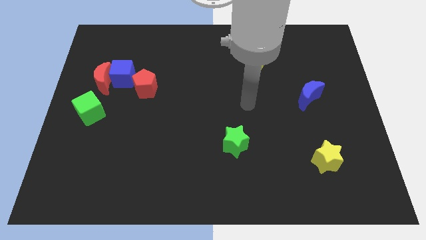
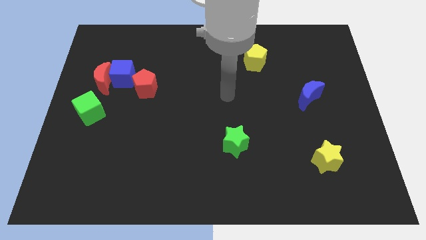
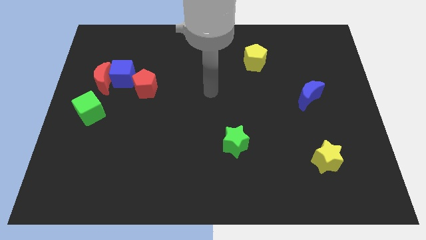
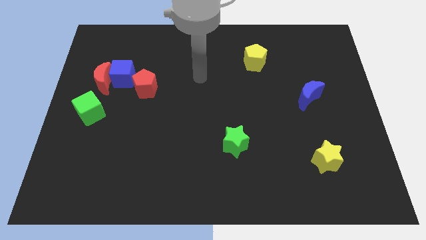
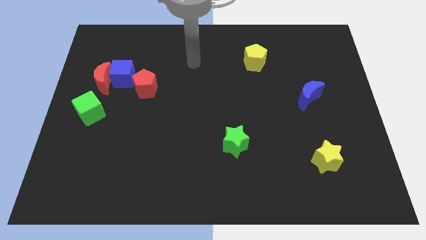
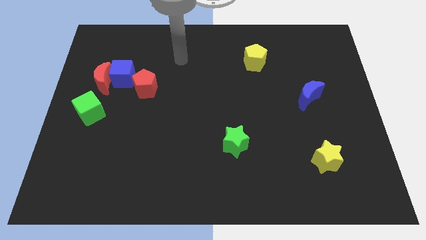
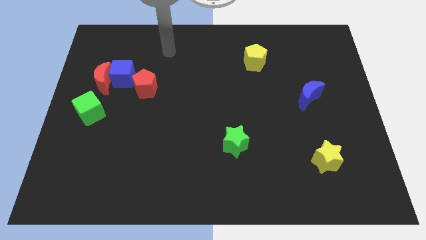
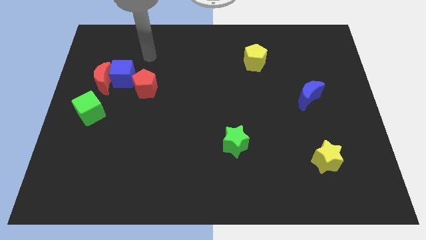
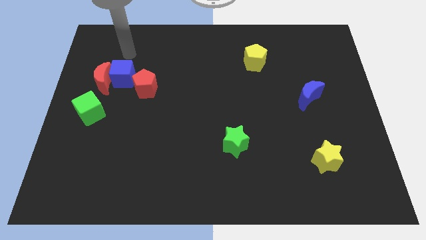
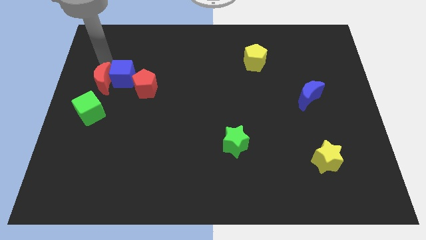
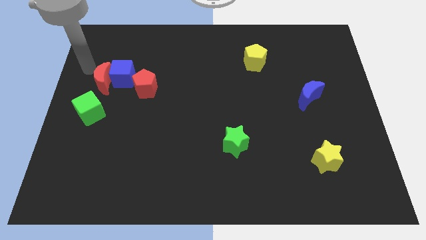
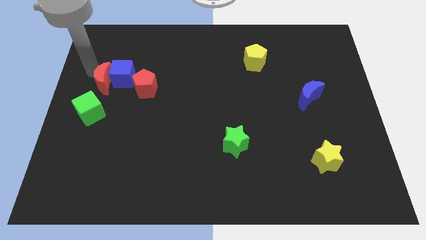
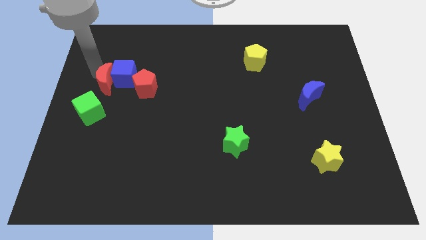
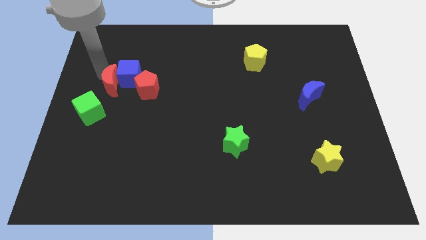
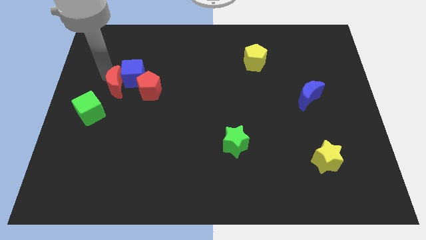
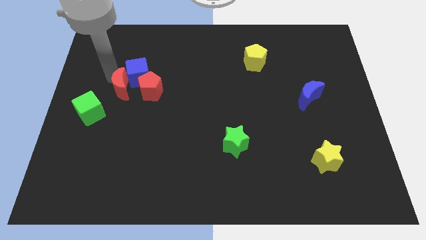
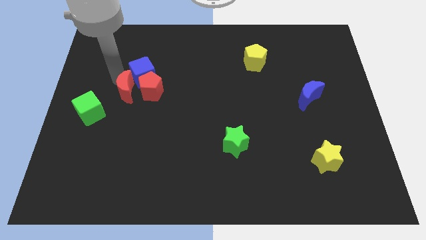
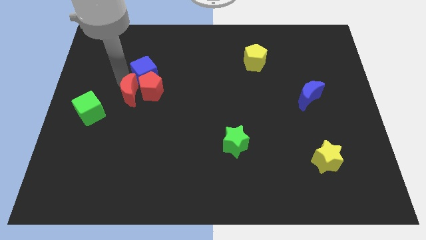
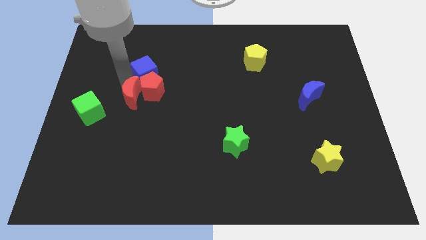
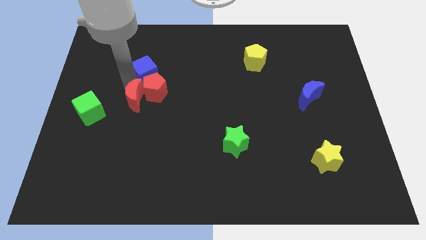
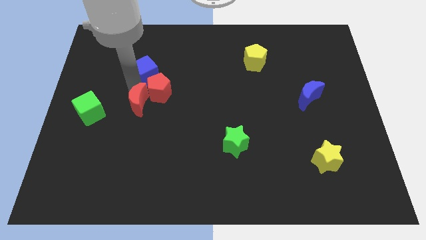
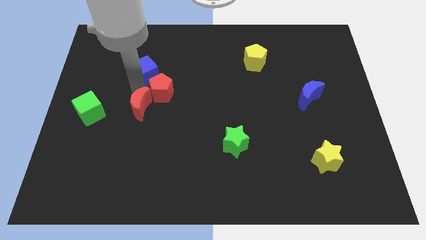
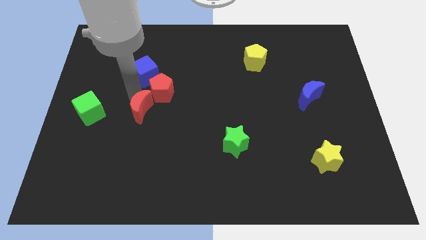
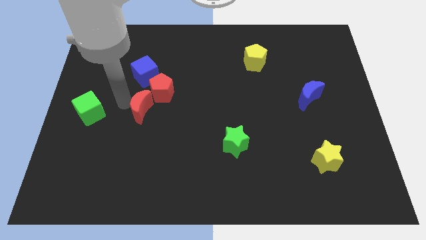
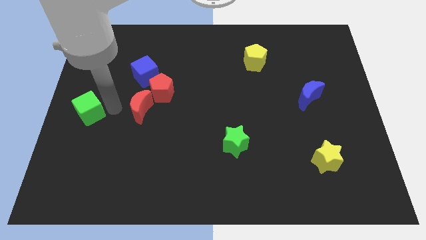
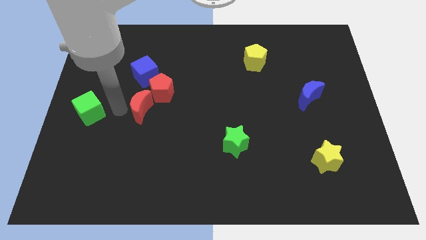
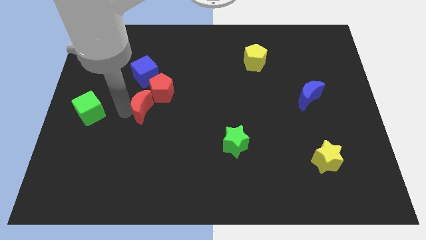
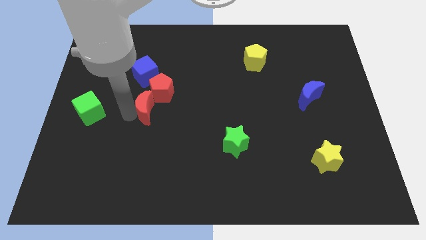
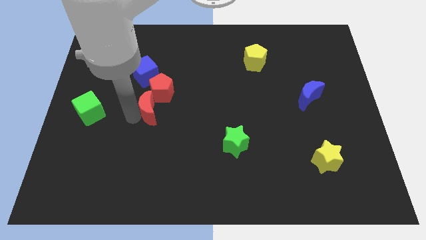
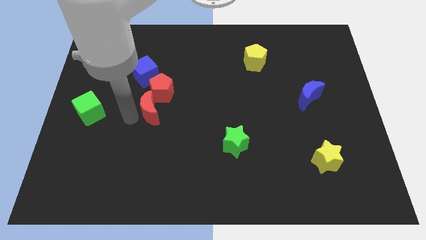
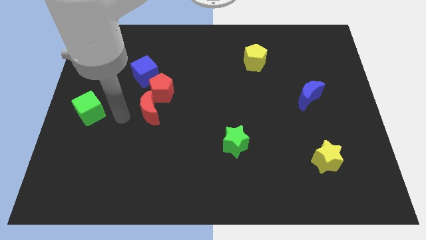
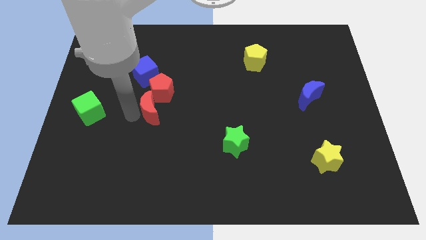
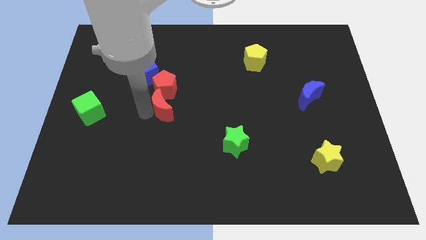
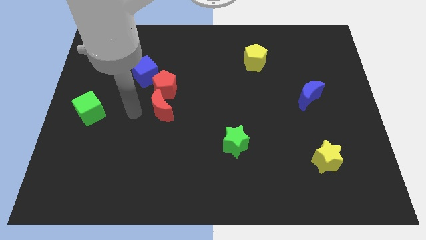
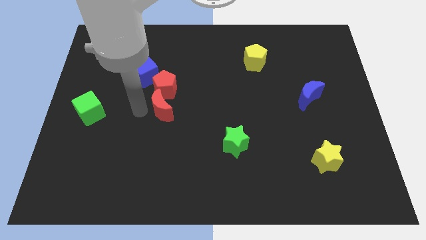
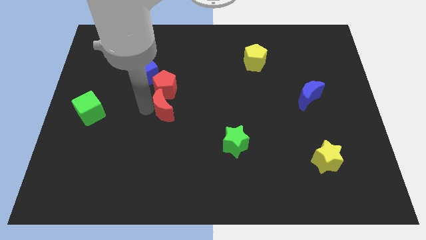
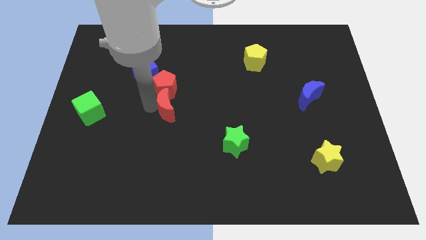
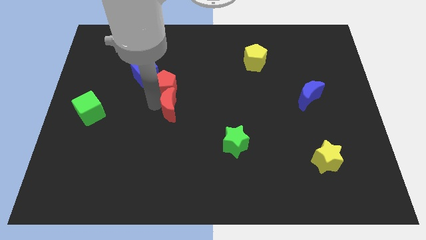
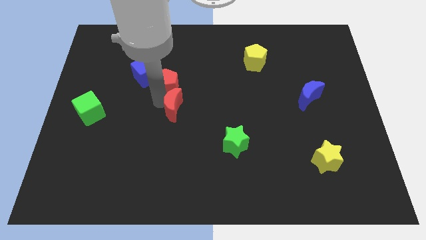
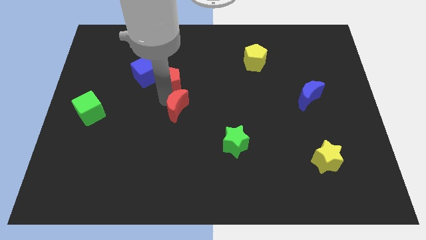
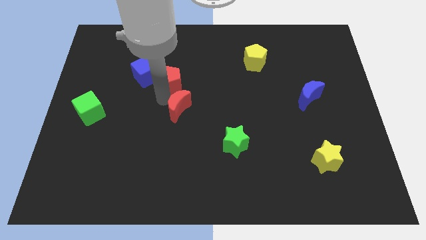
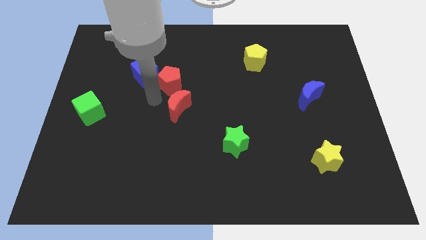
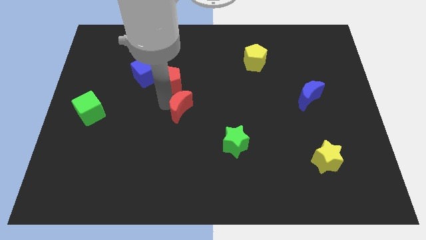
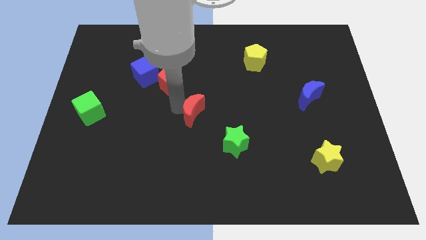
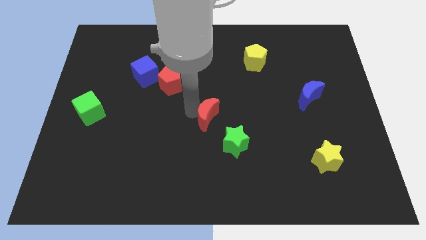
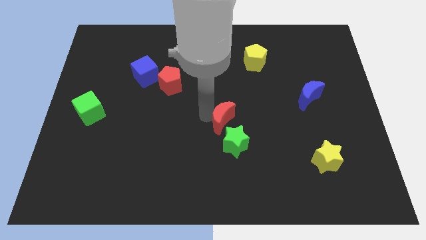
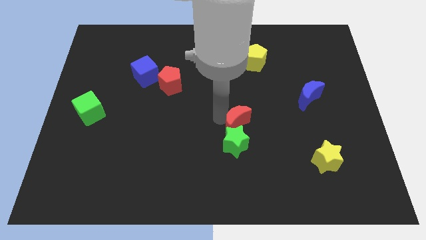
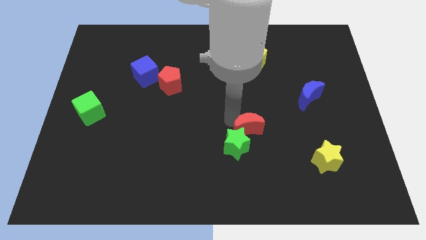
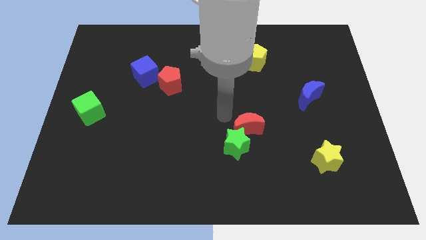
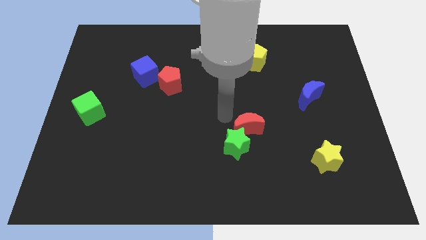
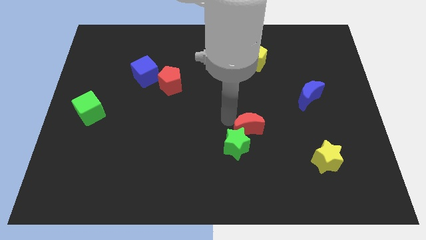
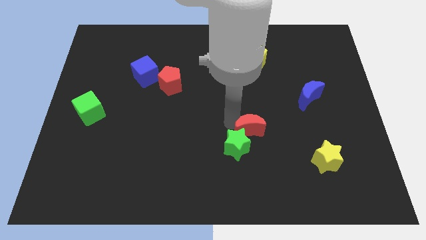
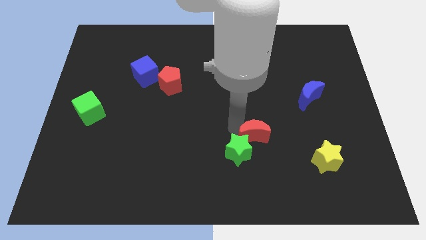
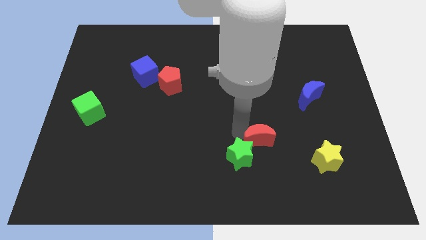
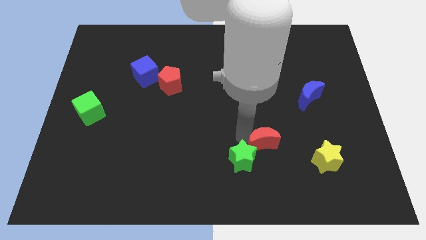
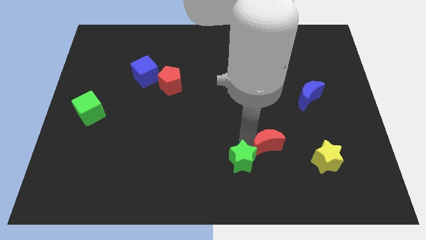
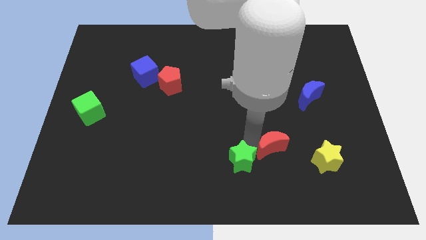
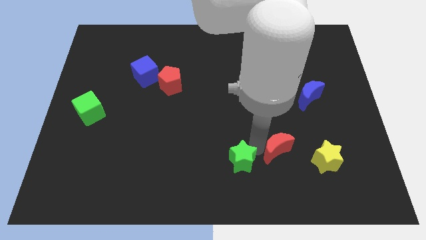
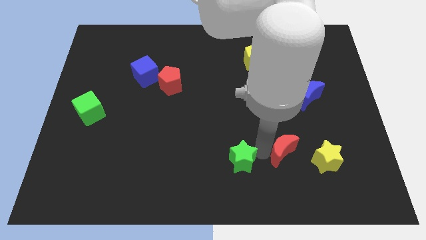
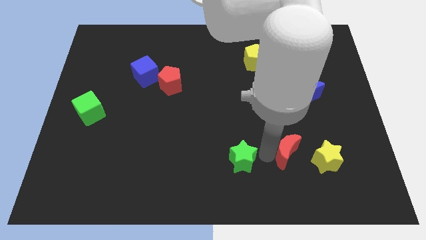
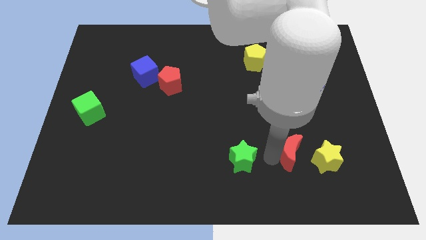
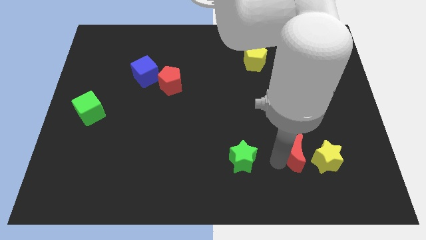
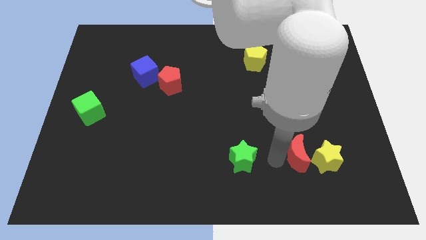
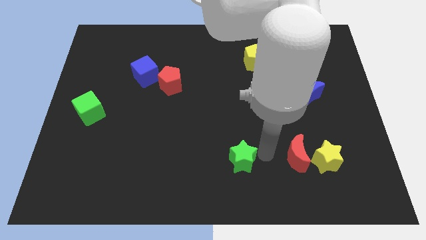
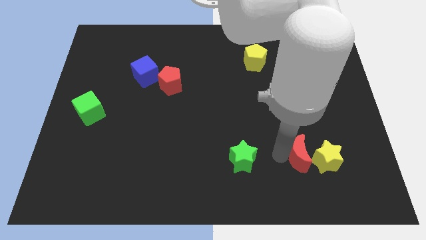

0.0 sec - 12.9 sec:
push the red moon next to the yellow star

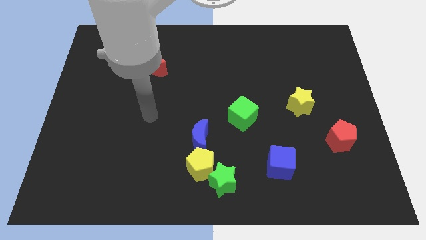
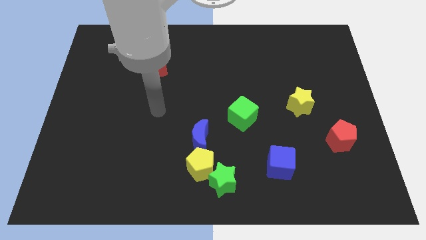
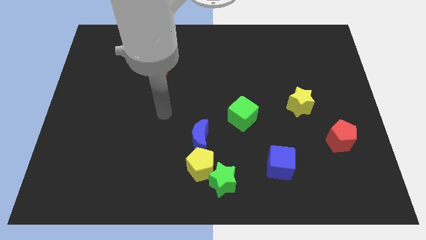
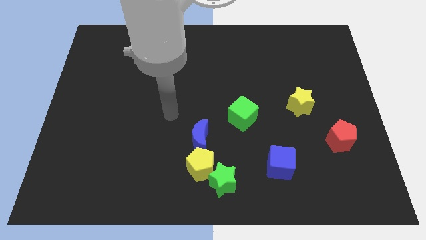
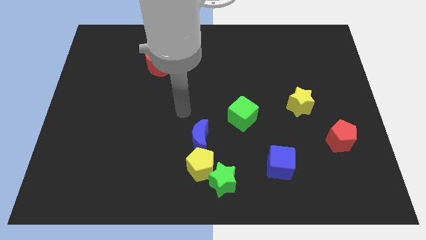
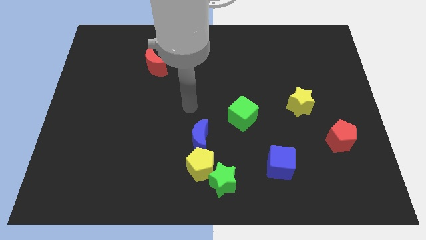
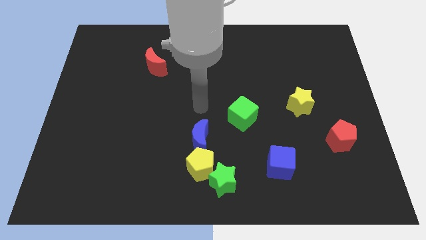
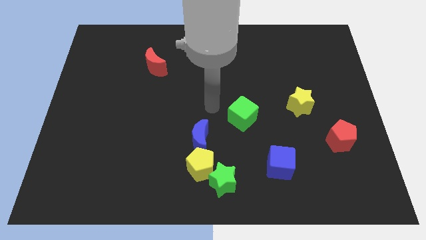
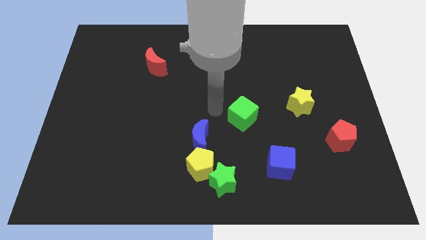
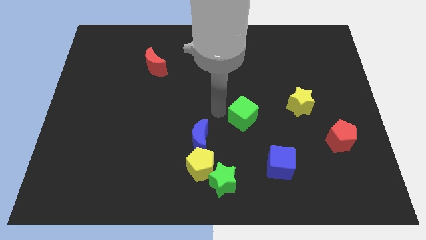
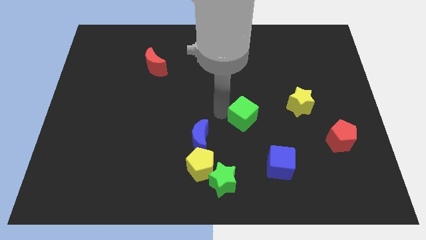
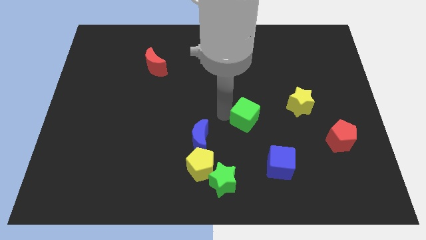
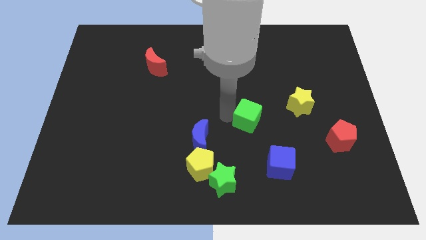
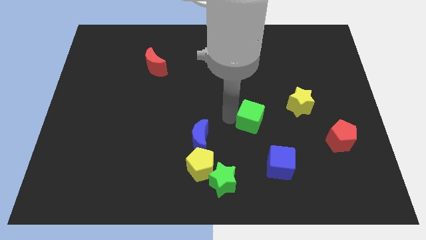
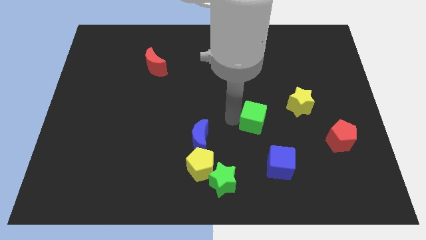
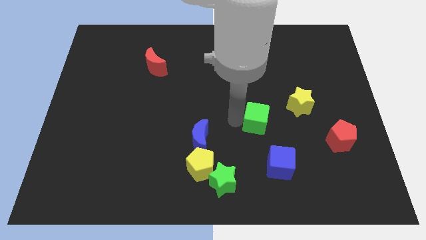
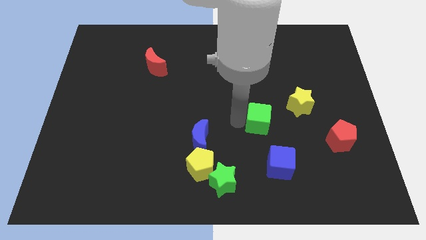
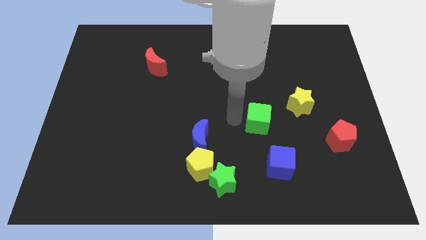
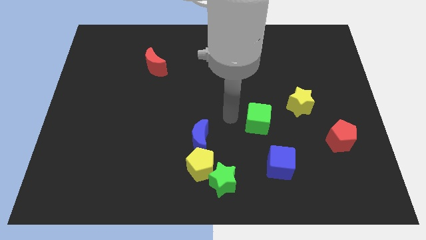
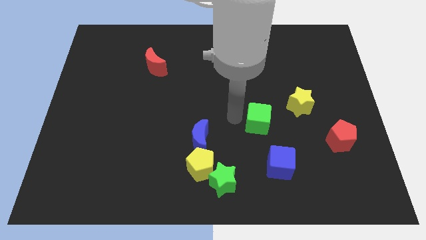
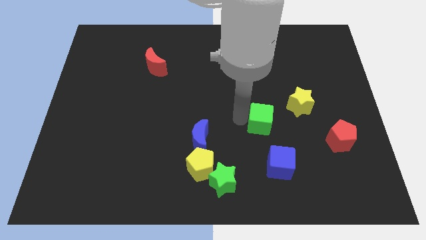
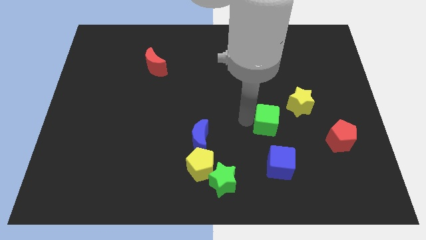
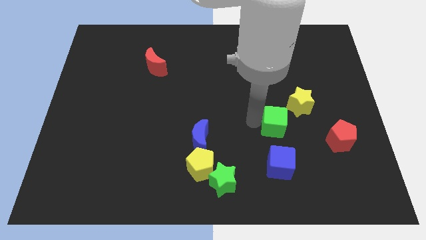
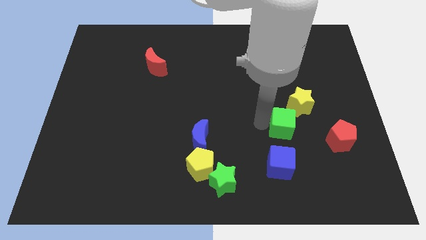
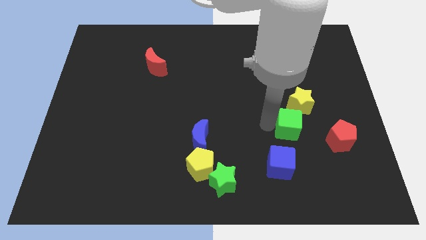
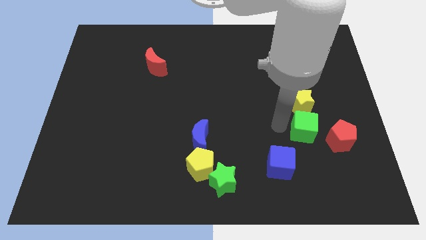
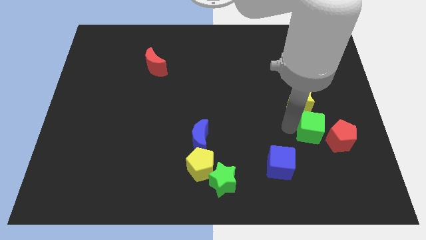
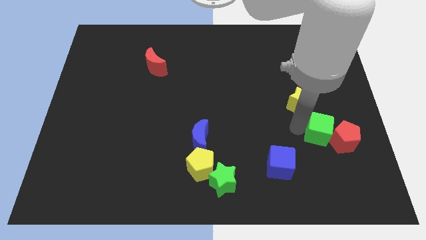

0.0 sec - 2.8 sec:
slide the green cube towards the red pentagon
